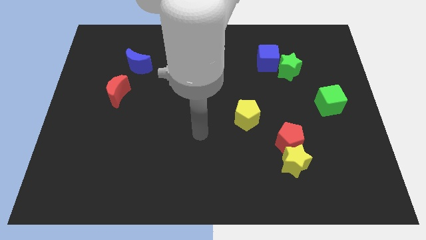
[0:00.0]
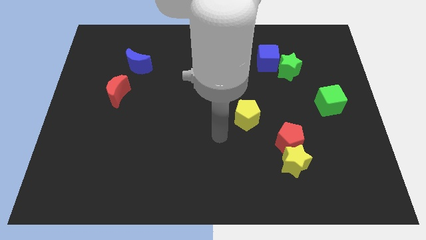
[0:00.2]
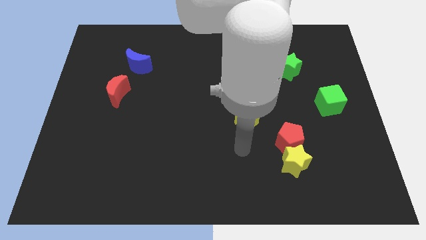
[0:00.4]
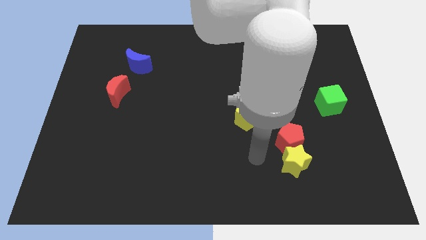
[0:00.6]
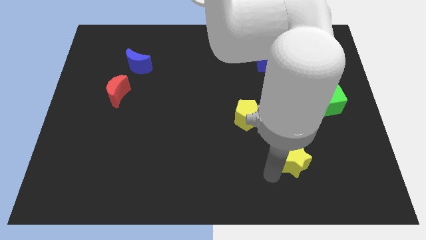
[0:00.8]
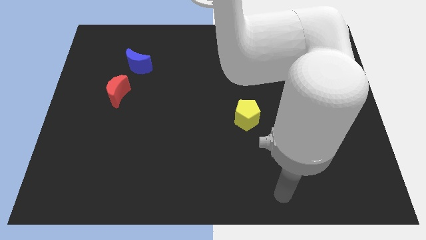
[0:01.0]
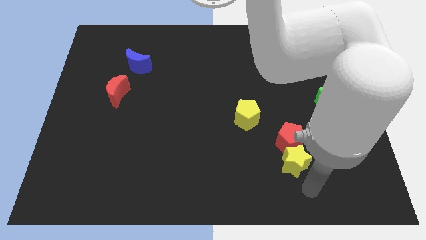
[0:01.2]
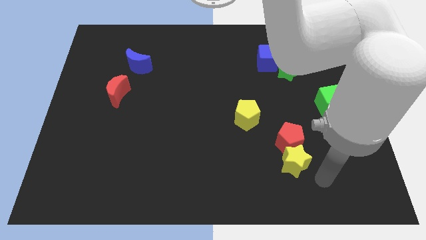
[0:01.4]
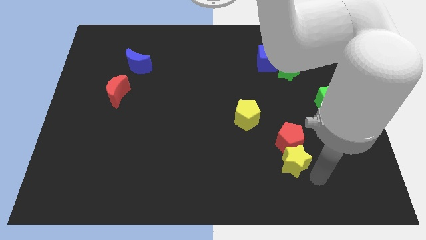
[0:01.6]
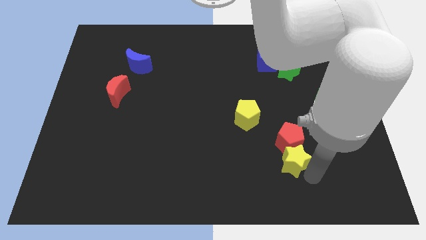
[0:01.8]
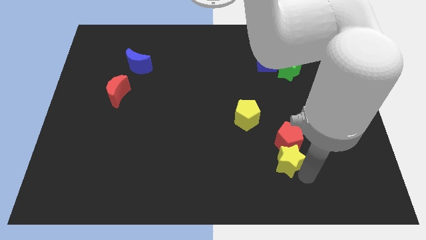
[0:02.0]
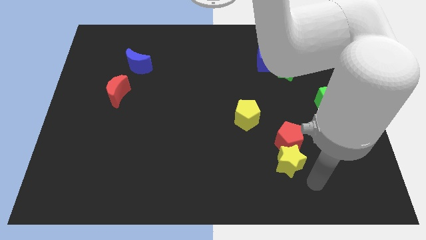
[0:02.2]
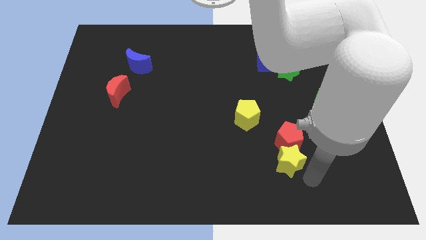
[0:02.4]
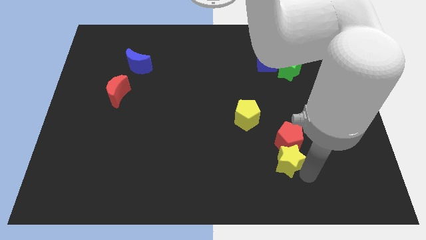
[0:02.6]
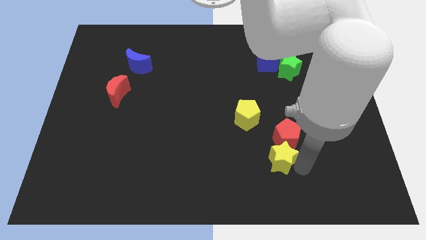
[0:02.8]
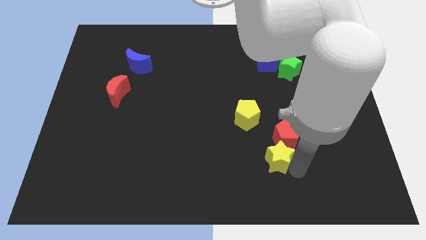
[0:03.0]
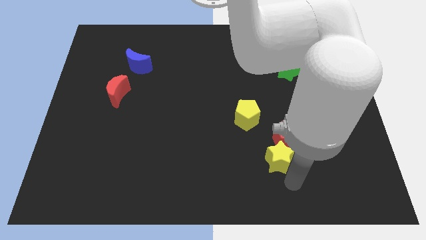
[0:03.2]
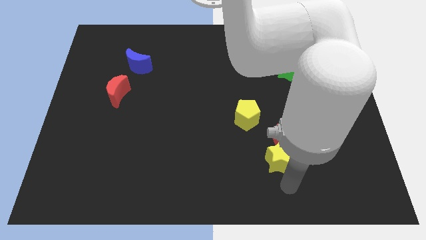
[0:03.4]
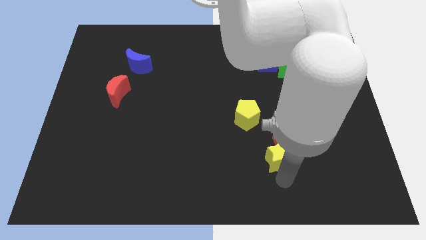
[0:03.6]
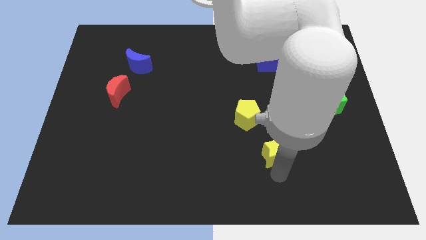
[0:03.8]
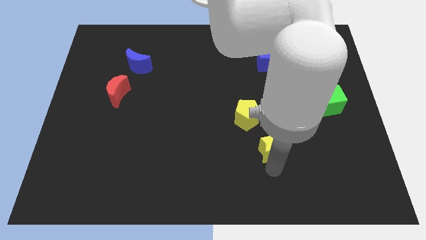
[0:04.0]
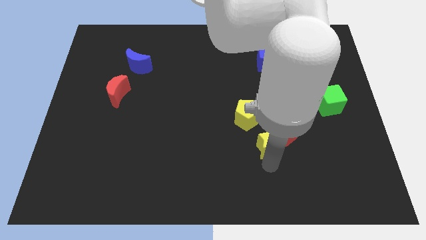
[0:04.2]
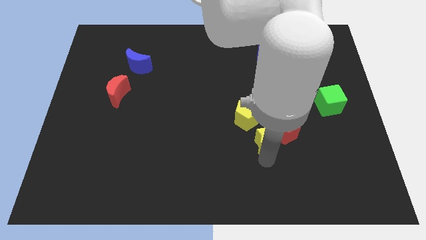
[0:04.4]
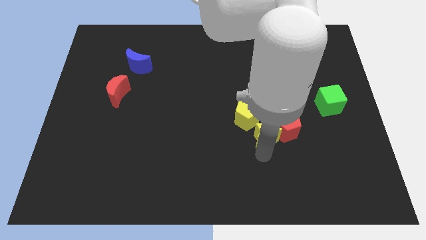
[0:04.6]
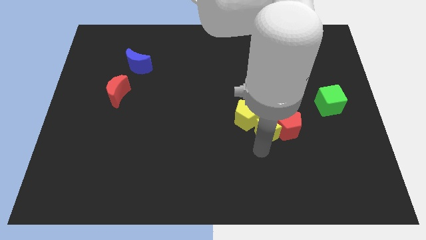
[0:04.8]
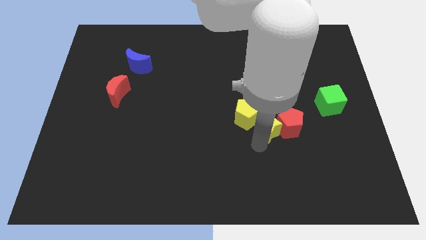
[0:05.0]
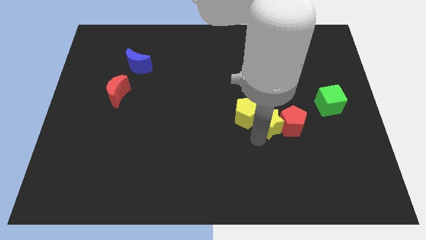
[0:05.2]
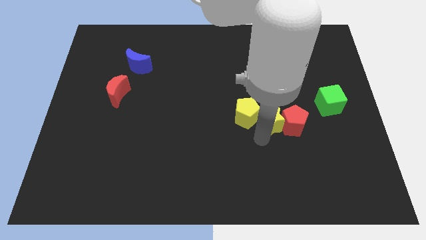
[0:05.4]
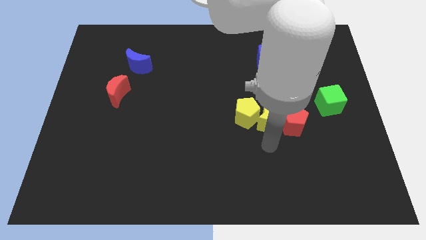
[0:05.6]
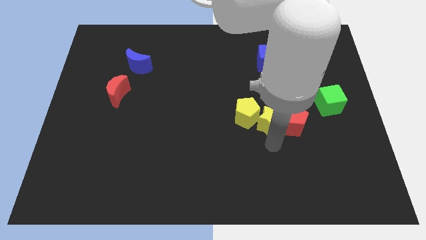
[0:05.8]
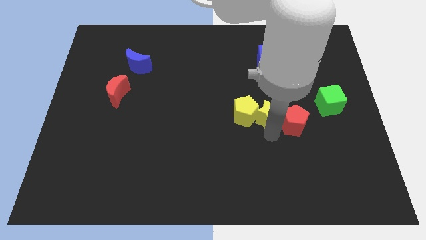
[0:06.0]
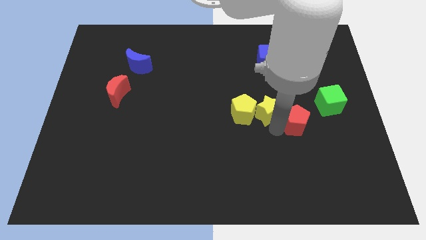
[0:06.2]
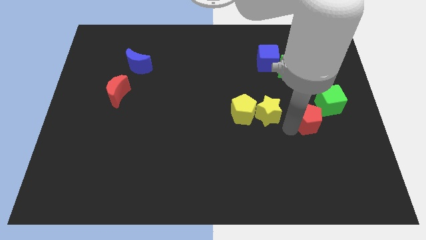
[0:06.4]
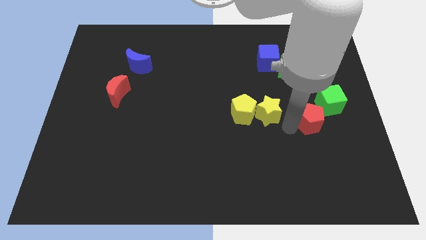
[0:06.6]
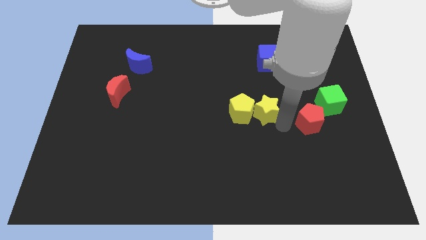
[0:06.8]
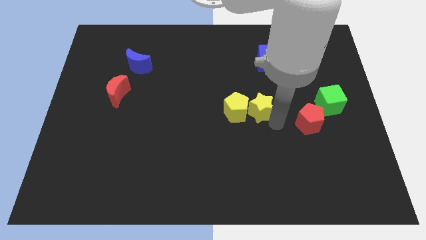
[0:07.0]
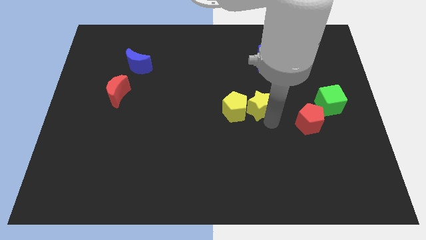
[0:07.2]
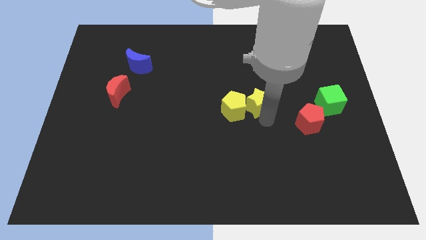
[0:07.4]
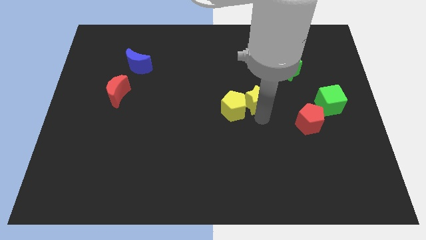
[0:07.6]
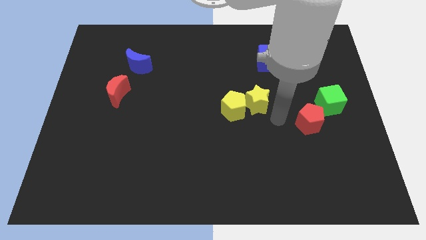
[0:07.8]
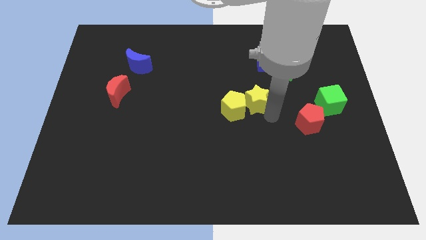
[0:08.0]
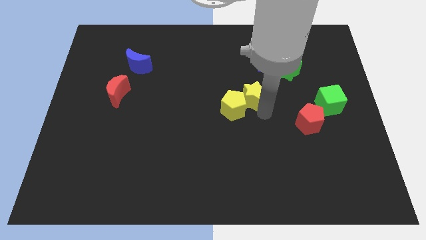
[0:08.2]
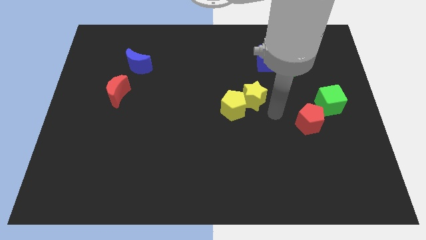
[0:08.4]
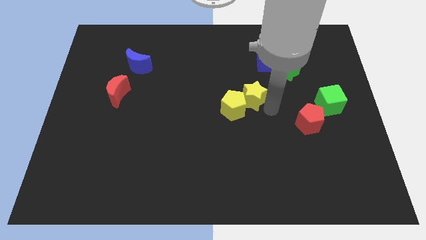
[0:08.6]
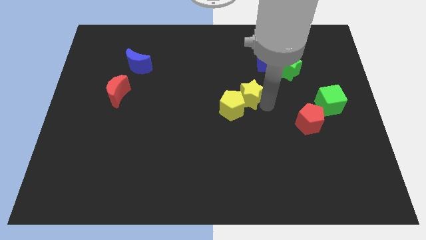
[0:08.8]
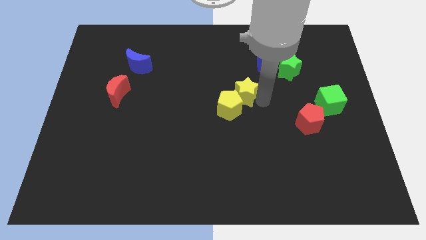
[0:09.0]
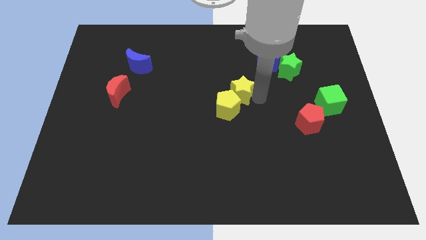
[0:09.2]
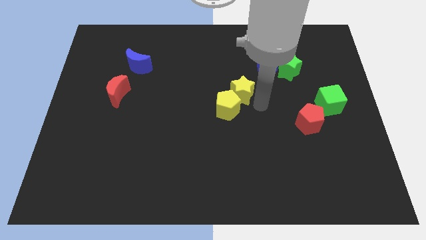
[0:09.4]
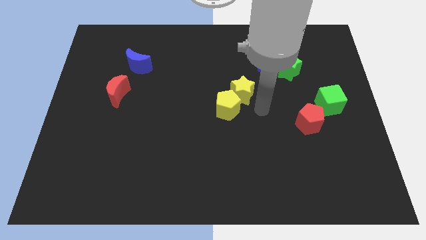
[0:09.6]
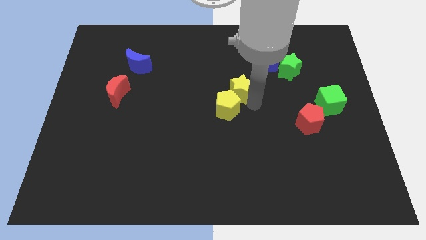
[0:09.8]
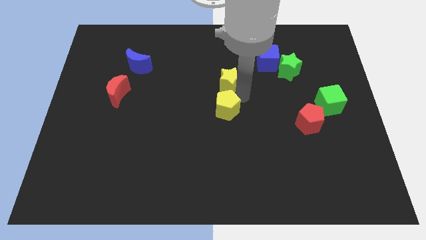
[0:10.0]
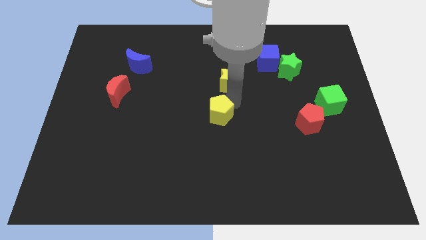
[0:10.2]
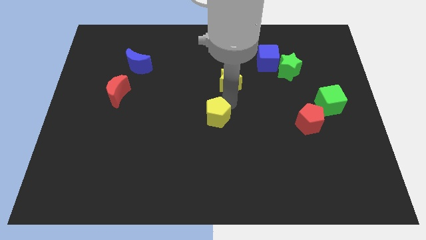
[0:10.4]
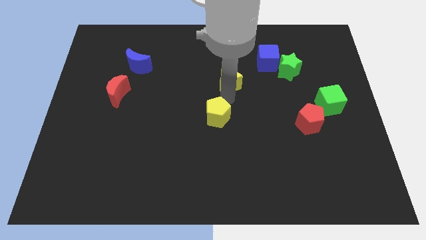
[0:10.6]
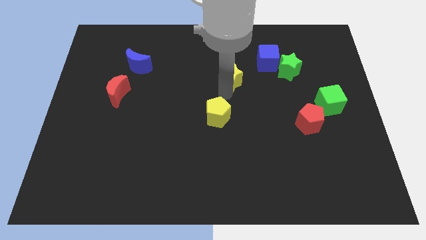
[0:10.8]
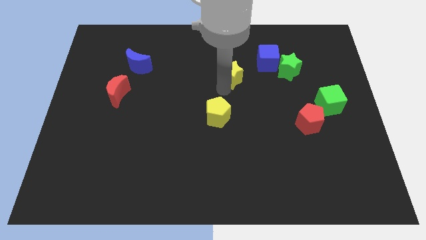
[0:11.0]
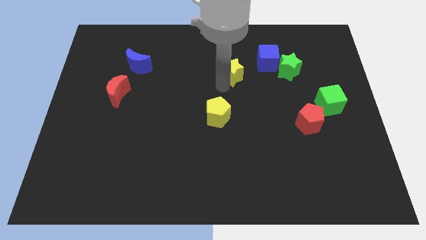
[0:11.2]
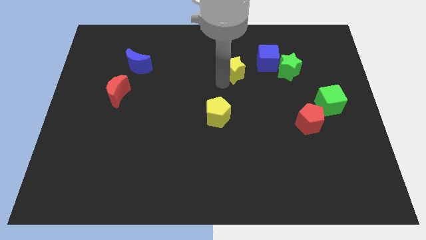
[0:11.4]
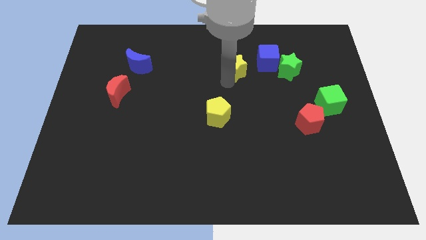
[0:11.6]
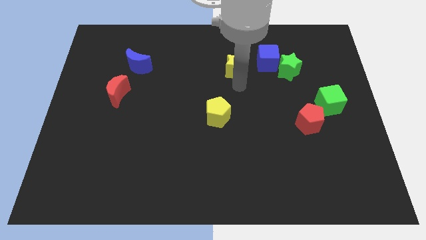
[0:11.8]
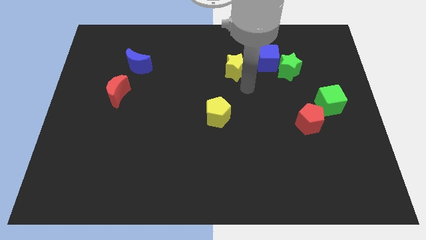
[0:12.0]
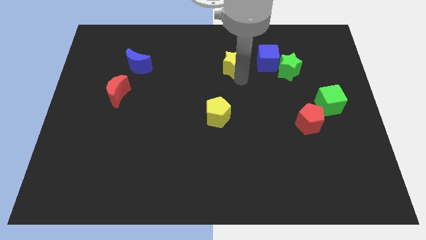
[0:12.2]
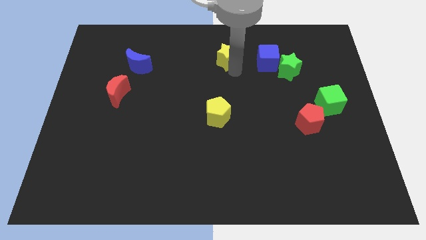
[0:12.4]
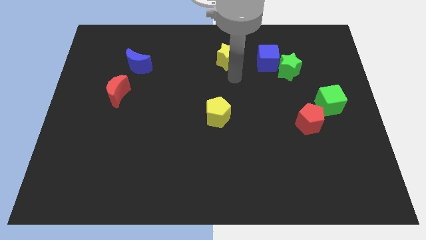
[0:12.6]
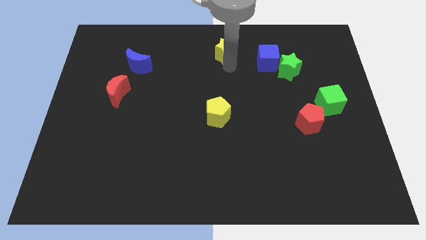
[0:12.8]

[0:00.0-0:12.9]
slide the yellow star to the towards your base
